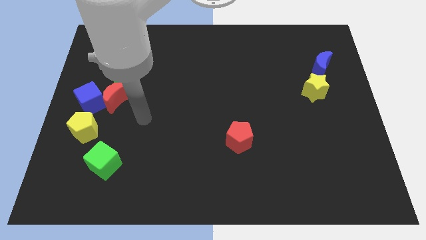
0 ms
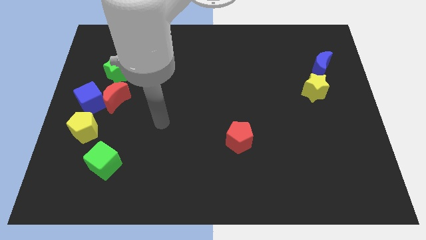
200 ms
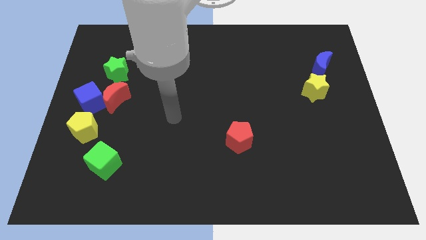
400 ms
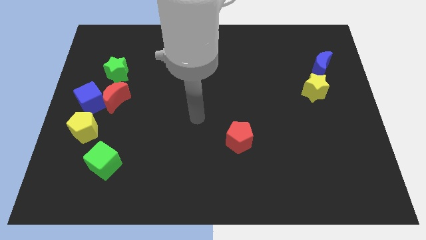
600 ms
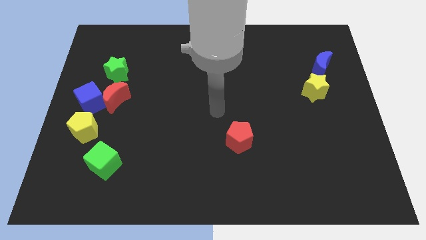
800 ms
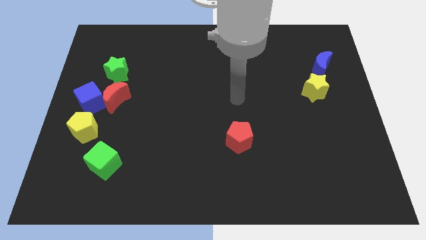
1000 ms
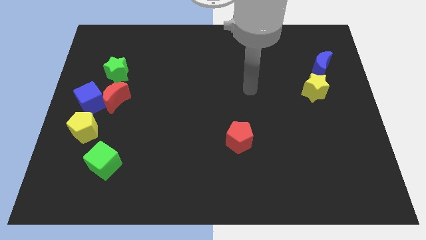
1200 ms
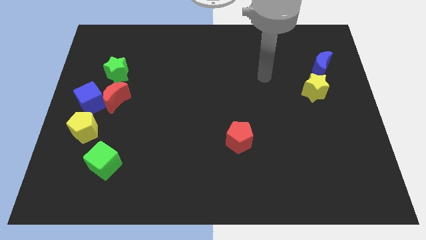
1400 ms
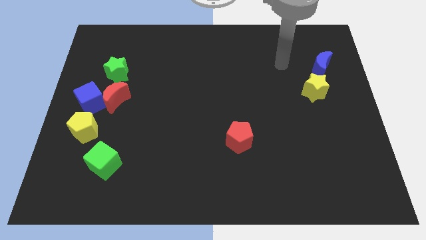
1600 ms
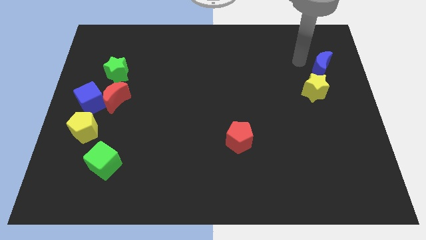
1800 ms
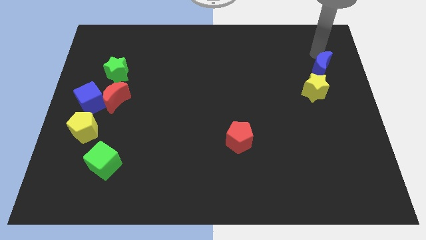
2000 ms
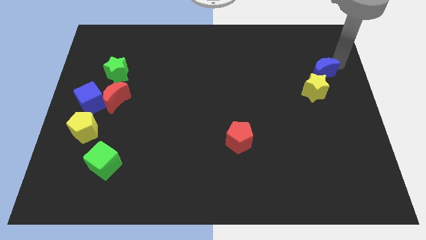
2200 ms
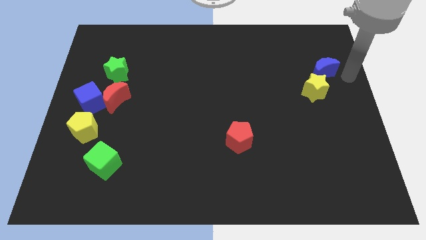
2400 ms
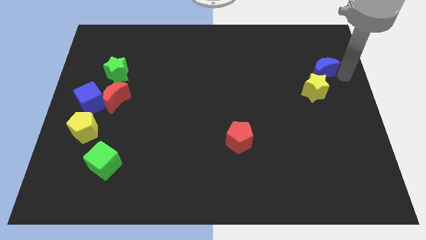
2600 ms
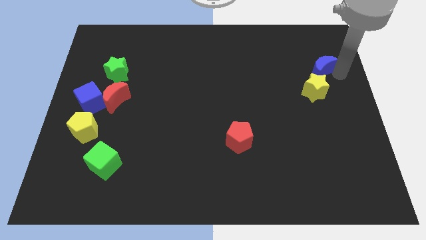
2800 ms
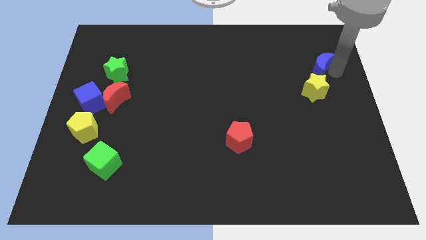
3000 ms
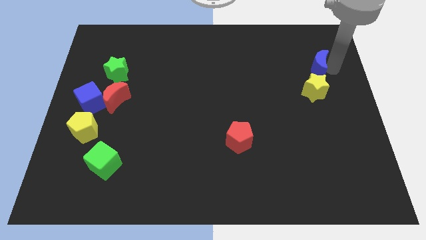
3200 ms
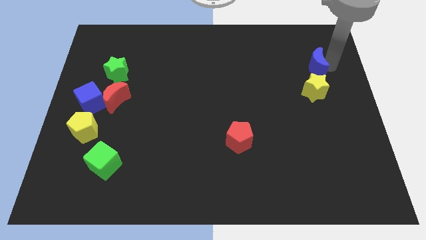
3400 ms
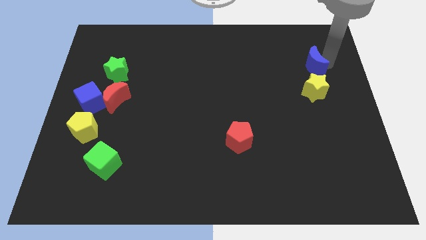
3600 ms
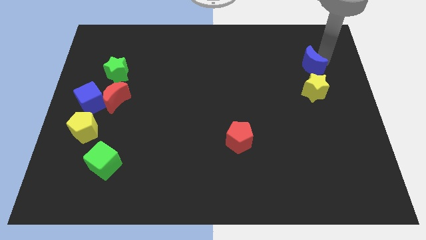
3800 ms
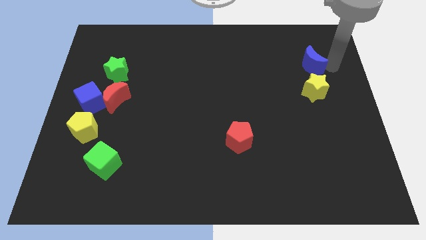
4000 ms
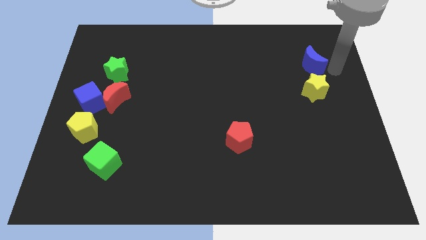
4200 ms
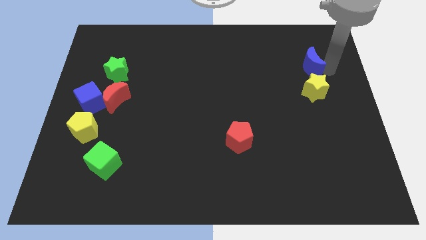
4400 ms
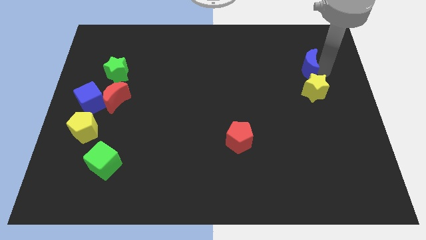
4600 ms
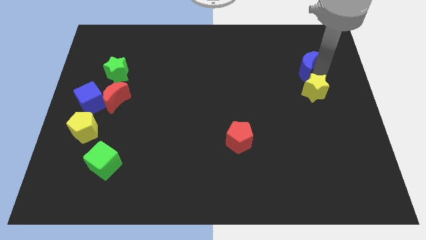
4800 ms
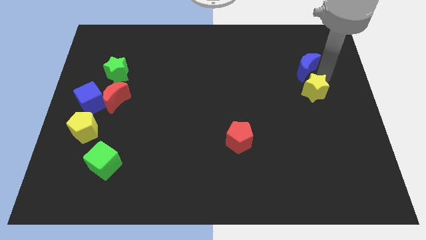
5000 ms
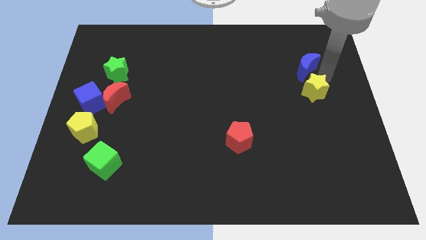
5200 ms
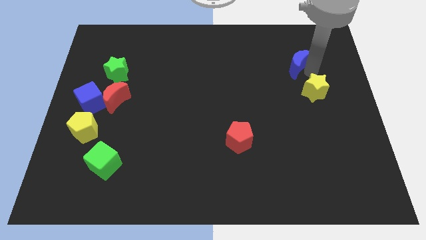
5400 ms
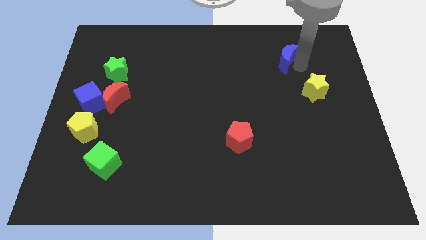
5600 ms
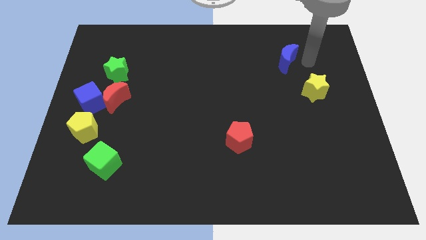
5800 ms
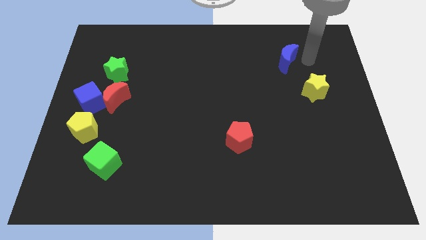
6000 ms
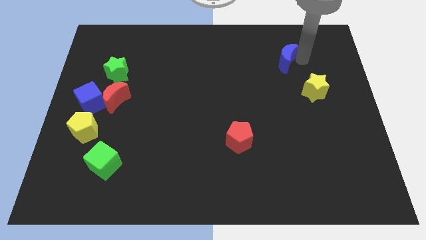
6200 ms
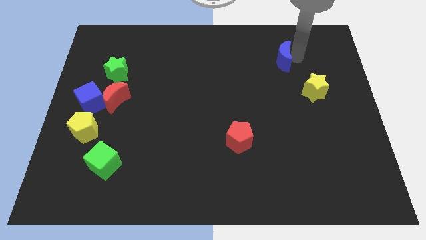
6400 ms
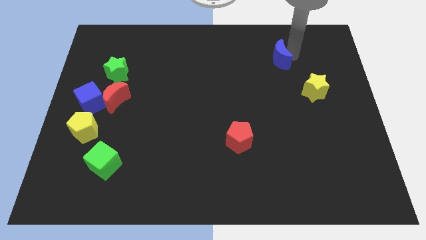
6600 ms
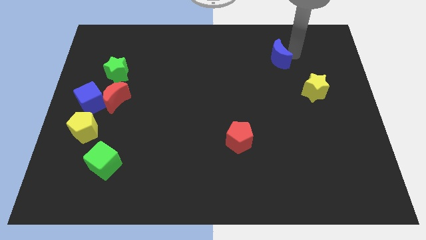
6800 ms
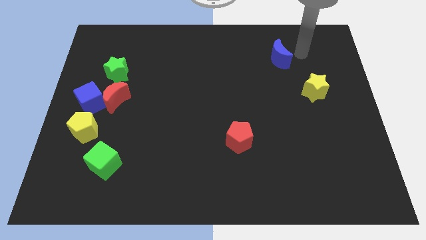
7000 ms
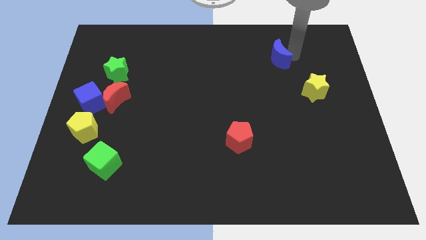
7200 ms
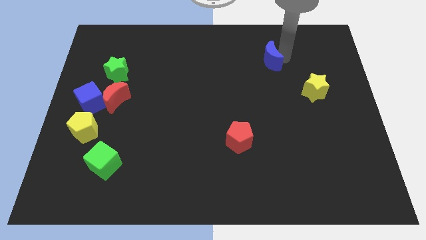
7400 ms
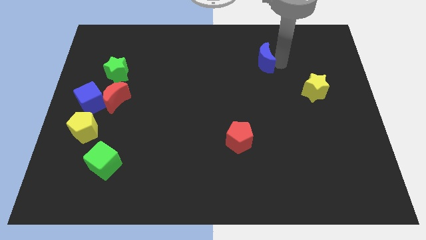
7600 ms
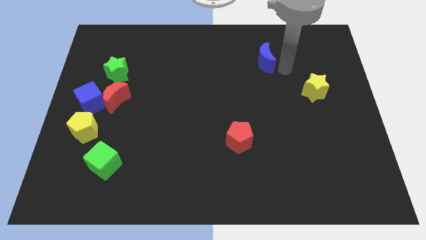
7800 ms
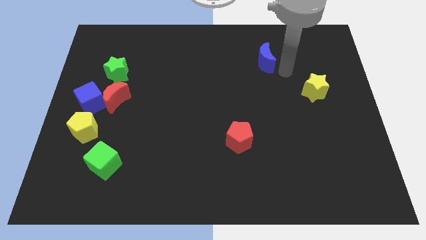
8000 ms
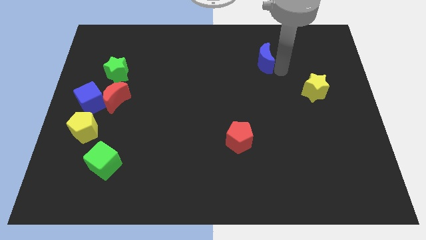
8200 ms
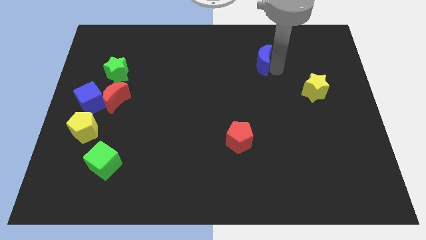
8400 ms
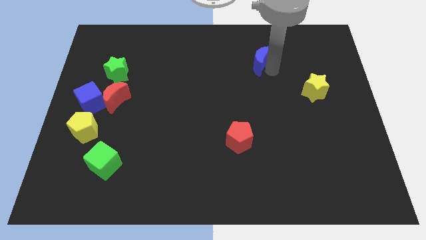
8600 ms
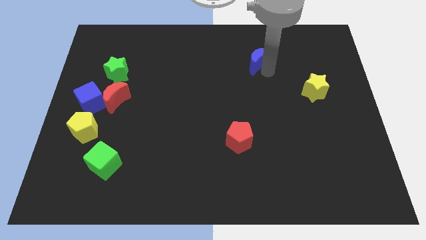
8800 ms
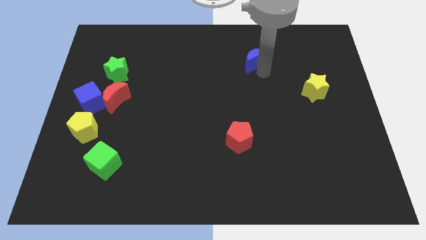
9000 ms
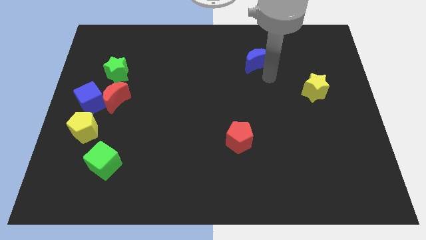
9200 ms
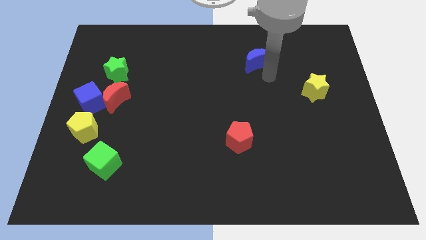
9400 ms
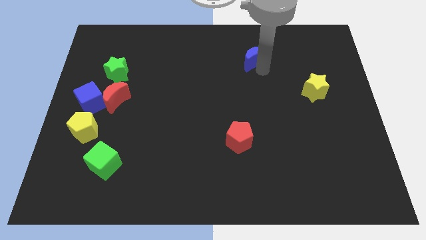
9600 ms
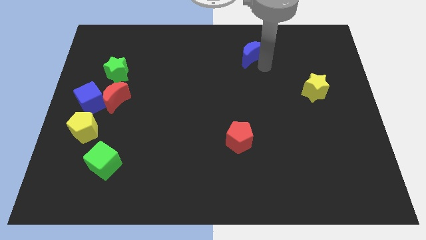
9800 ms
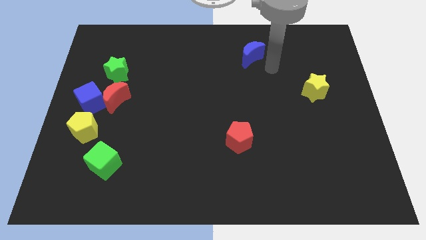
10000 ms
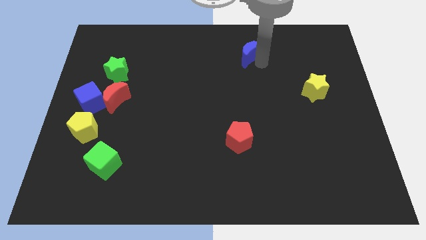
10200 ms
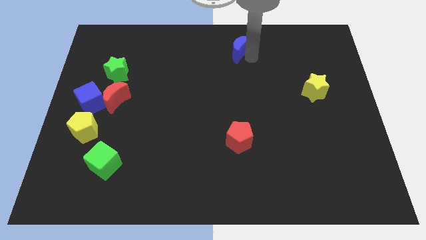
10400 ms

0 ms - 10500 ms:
slide the blue moon to the top side
